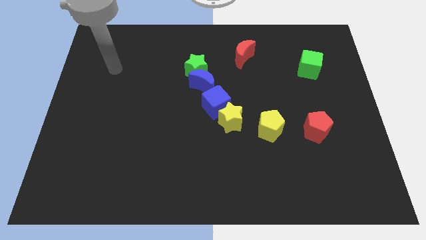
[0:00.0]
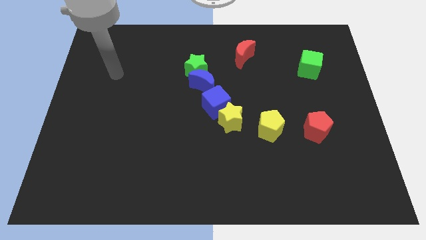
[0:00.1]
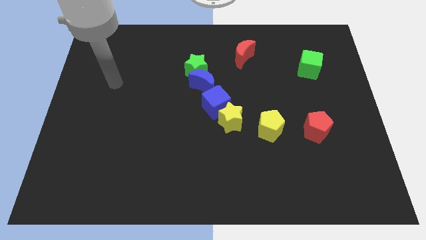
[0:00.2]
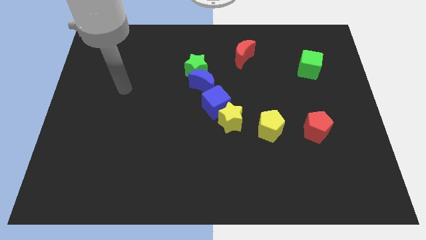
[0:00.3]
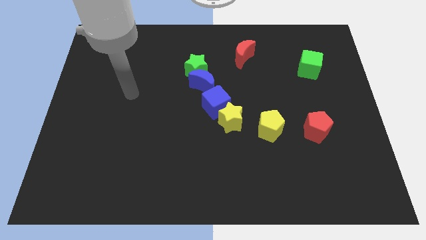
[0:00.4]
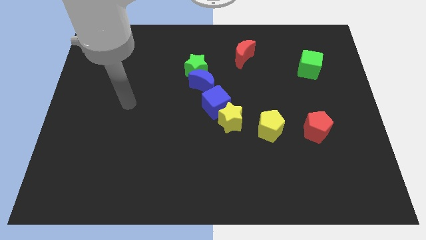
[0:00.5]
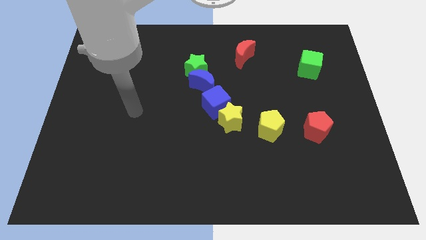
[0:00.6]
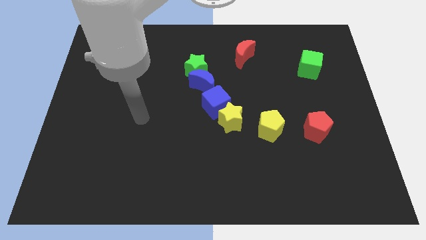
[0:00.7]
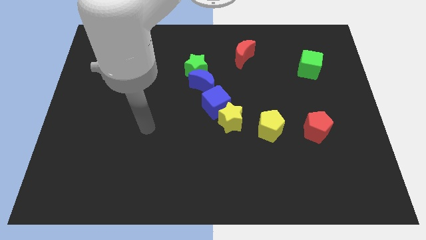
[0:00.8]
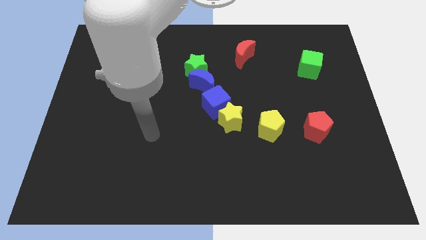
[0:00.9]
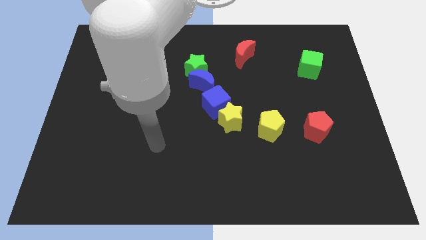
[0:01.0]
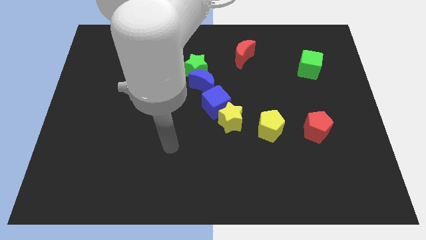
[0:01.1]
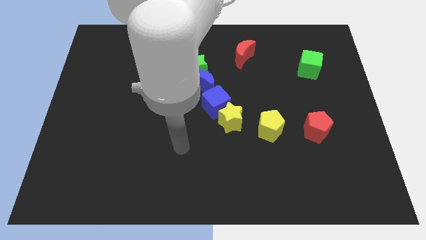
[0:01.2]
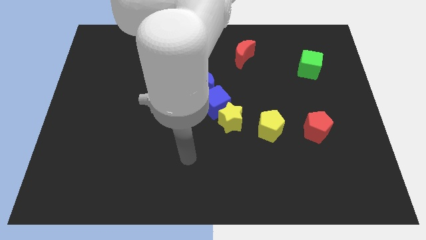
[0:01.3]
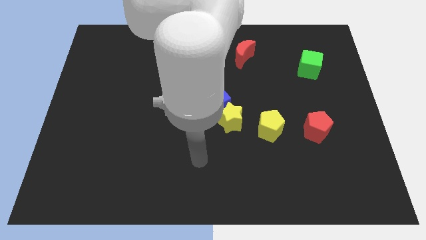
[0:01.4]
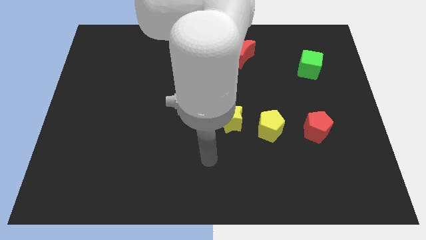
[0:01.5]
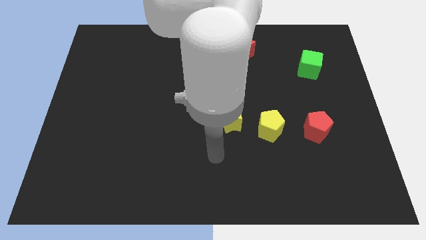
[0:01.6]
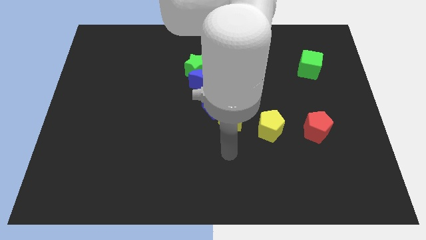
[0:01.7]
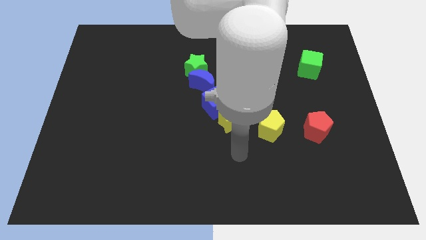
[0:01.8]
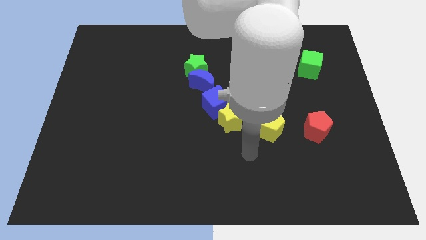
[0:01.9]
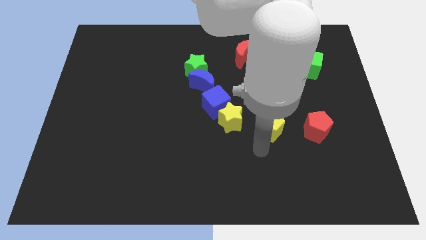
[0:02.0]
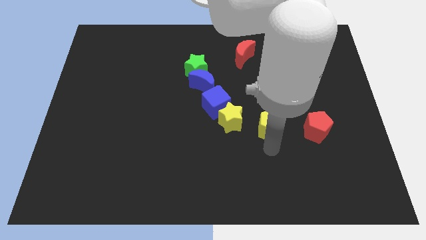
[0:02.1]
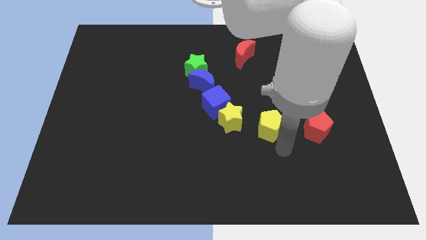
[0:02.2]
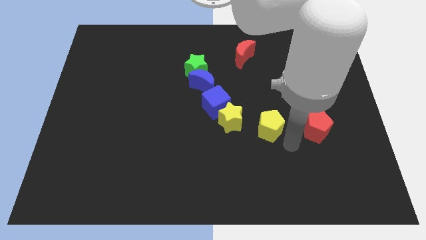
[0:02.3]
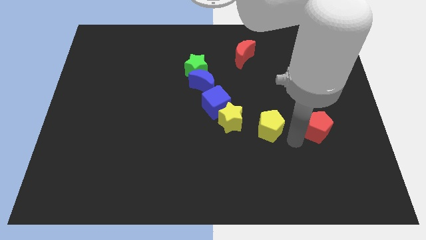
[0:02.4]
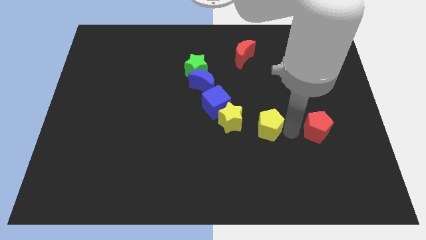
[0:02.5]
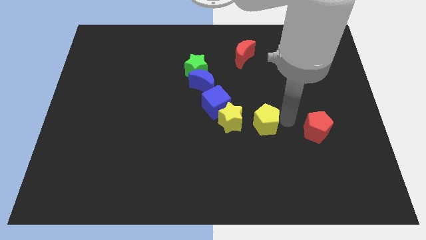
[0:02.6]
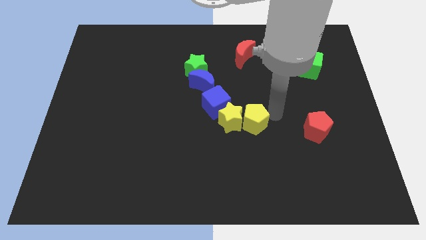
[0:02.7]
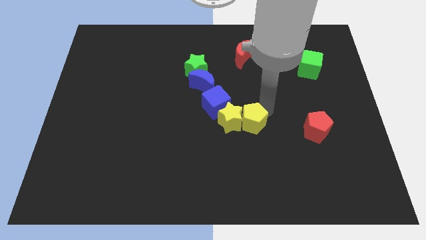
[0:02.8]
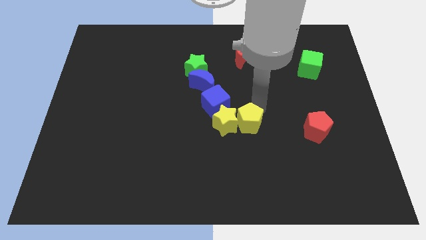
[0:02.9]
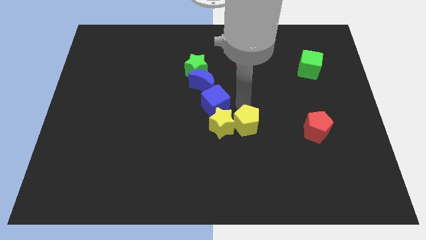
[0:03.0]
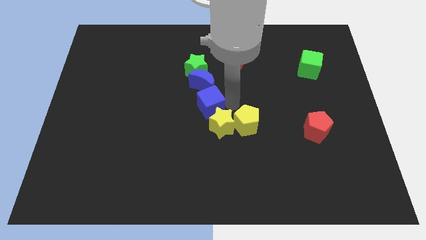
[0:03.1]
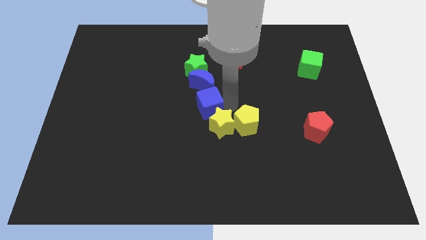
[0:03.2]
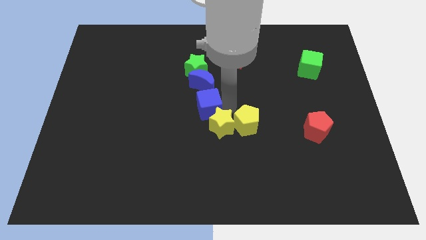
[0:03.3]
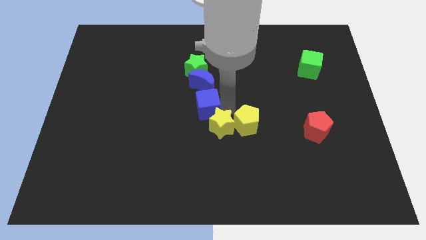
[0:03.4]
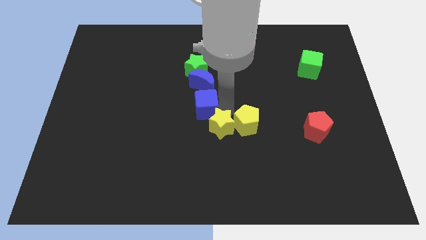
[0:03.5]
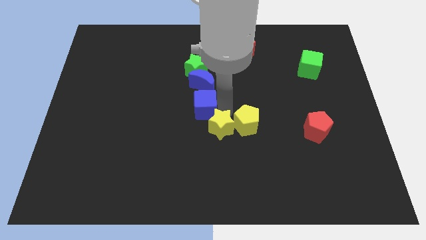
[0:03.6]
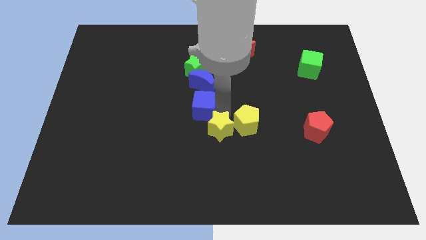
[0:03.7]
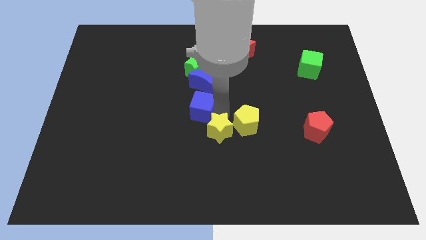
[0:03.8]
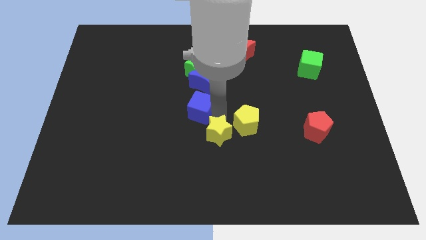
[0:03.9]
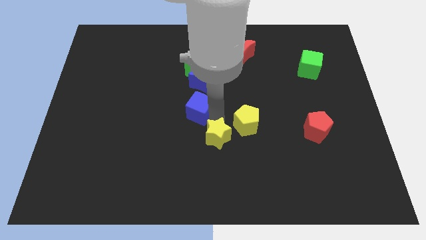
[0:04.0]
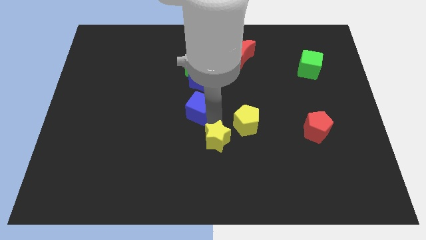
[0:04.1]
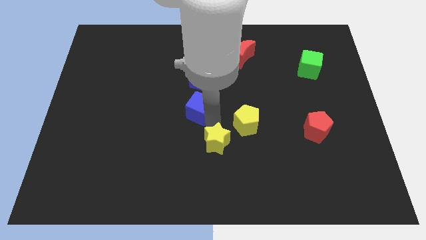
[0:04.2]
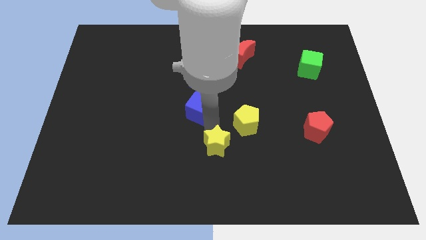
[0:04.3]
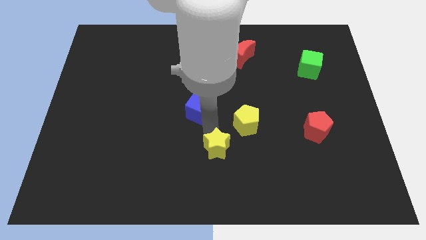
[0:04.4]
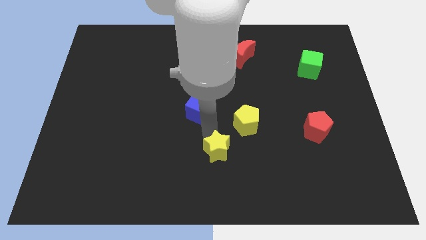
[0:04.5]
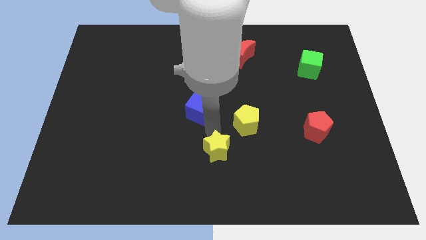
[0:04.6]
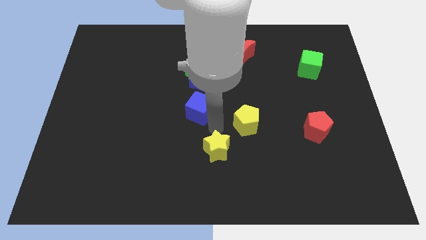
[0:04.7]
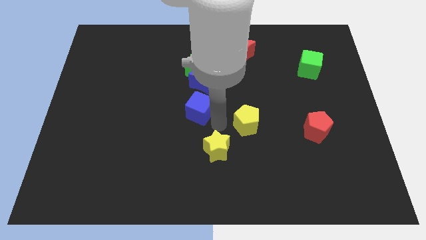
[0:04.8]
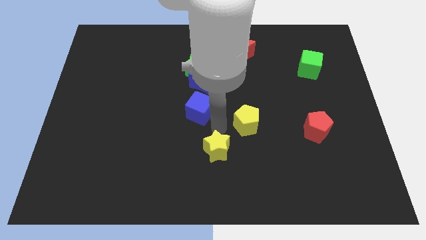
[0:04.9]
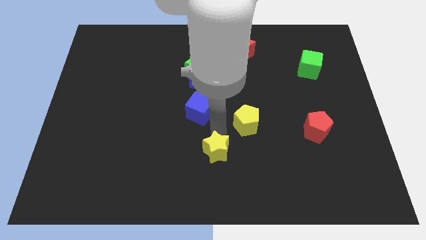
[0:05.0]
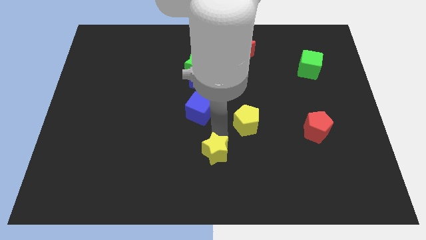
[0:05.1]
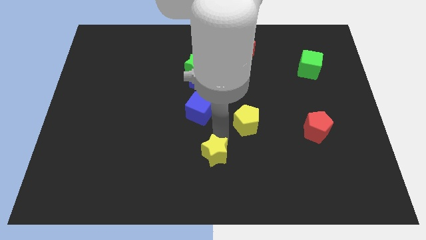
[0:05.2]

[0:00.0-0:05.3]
push the yellow star to the bottom side

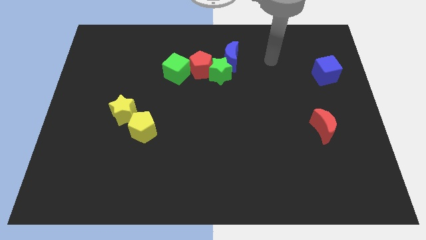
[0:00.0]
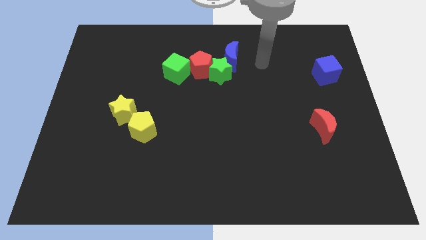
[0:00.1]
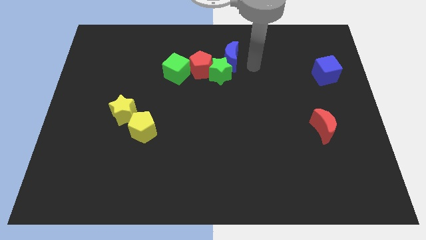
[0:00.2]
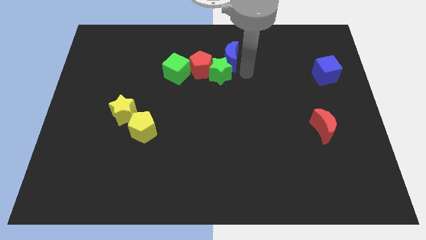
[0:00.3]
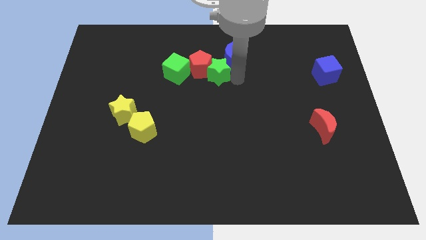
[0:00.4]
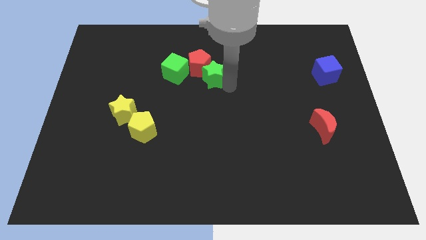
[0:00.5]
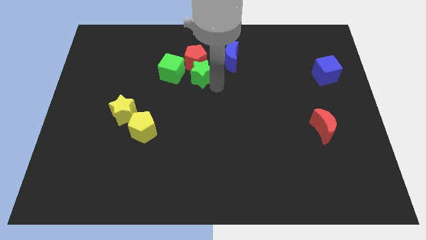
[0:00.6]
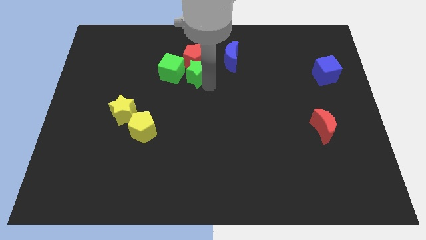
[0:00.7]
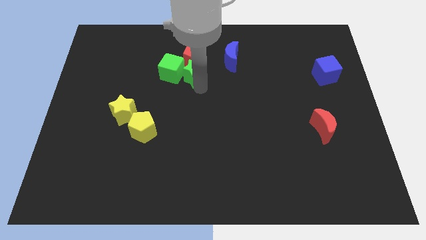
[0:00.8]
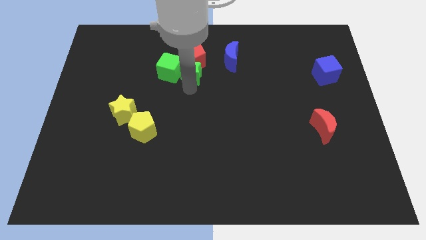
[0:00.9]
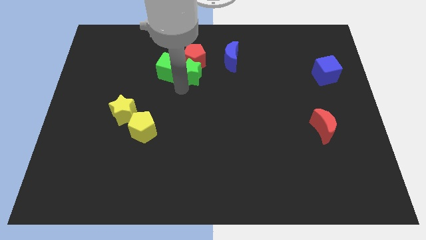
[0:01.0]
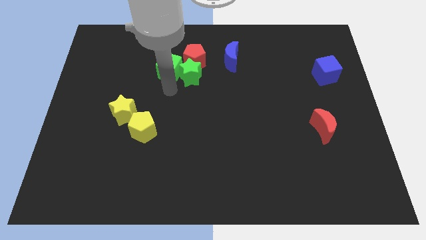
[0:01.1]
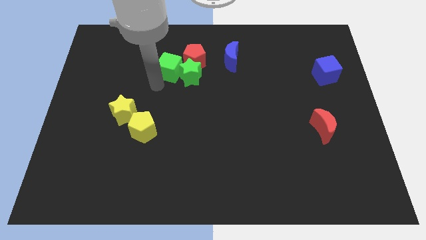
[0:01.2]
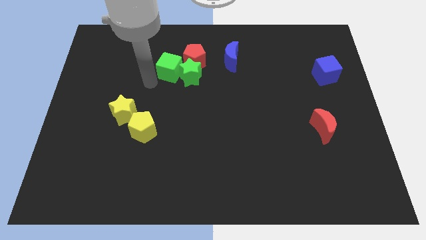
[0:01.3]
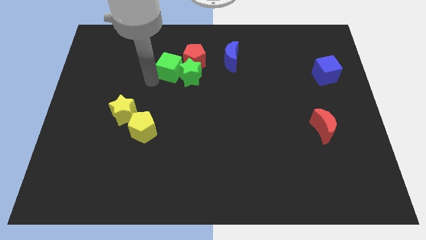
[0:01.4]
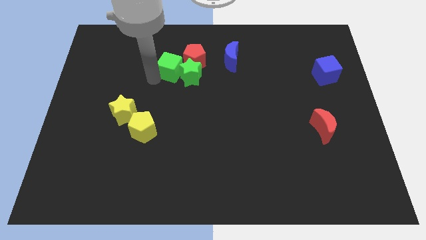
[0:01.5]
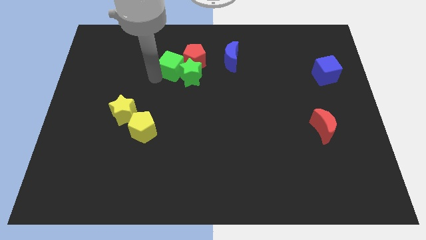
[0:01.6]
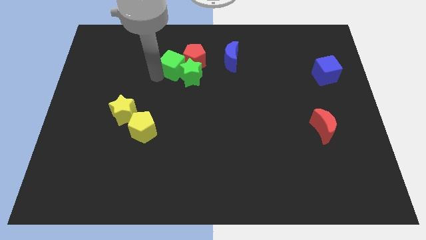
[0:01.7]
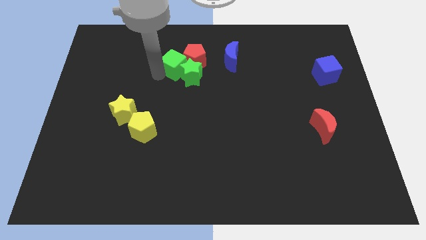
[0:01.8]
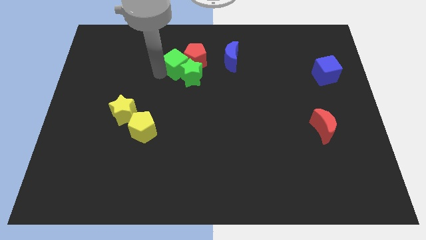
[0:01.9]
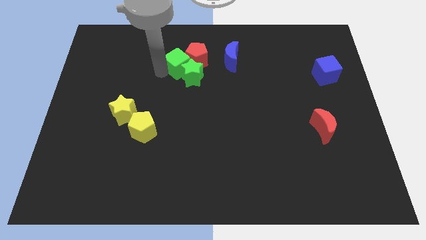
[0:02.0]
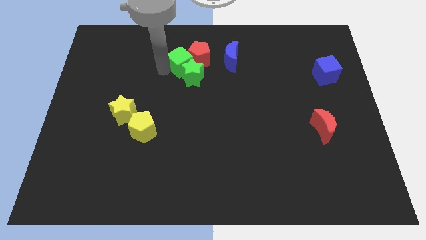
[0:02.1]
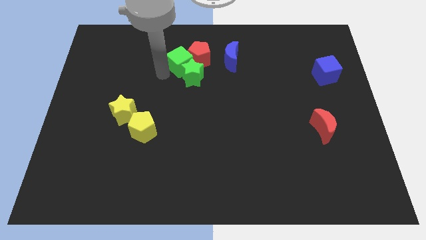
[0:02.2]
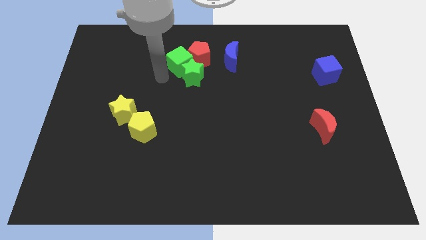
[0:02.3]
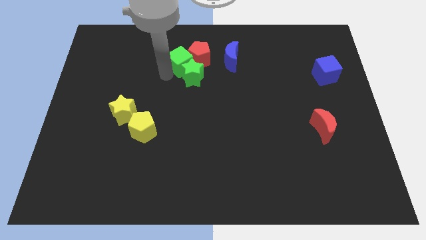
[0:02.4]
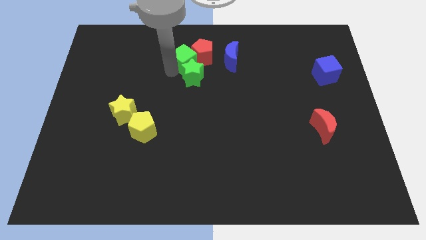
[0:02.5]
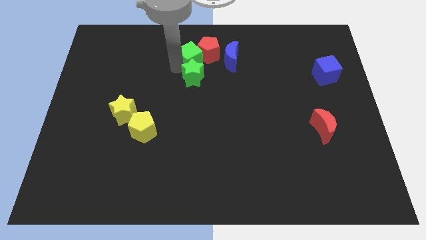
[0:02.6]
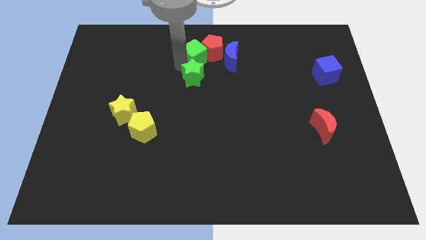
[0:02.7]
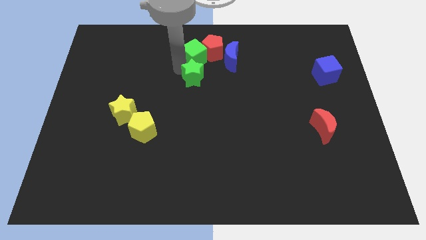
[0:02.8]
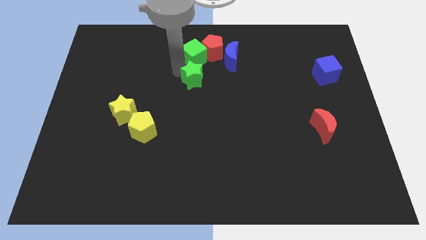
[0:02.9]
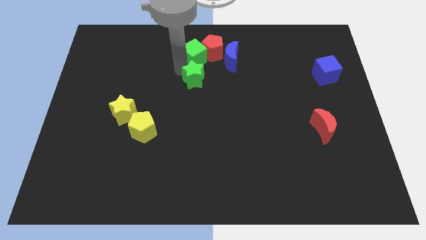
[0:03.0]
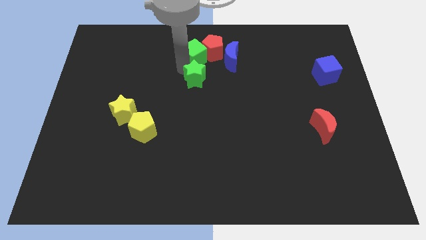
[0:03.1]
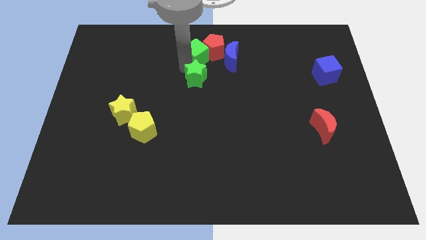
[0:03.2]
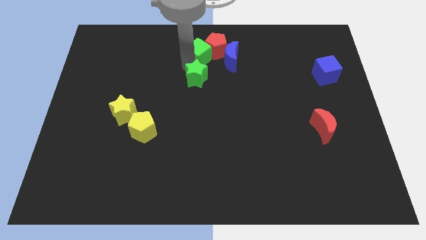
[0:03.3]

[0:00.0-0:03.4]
push the green cube to the top side
